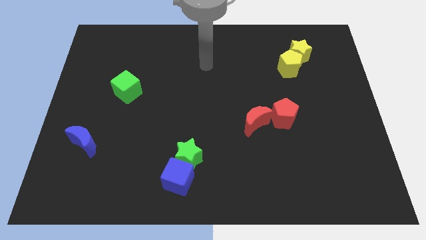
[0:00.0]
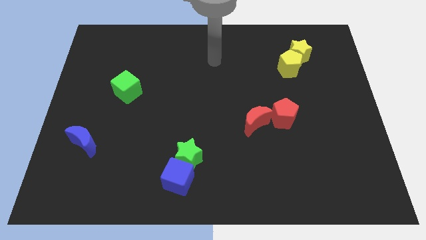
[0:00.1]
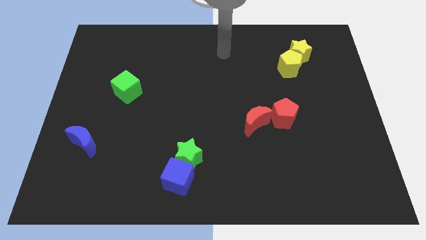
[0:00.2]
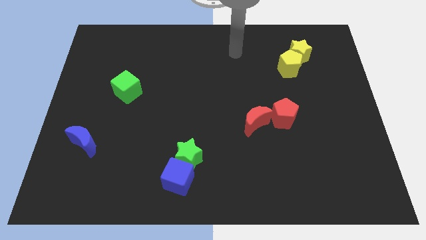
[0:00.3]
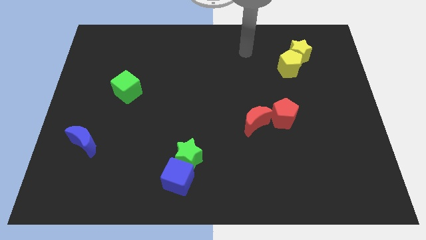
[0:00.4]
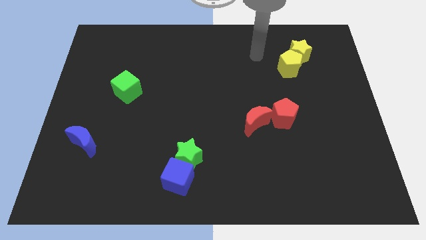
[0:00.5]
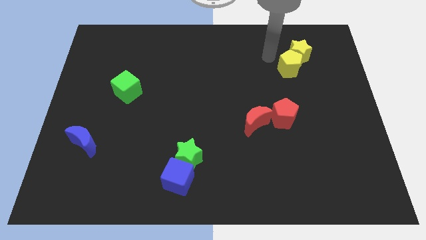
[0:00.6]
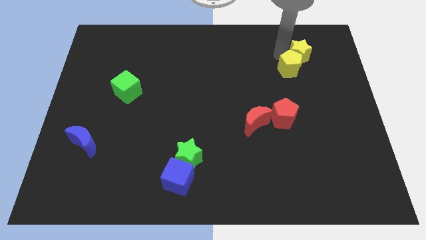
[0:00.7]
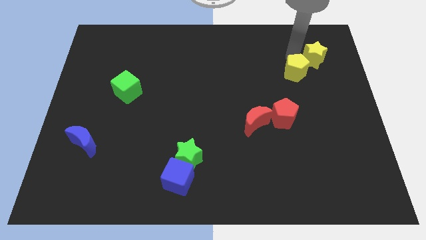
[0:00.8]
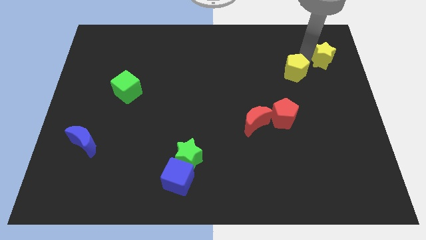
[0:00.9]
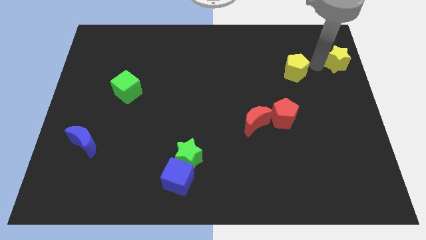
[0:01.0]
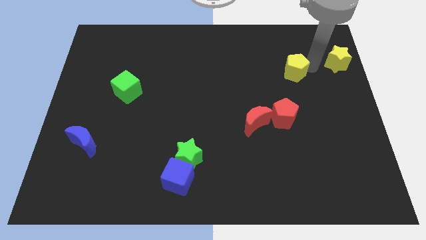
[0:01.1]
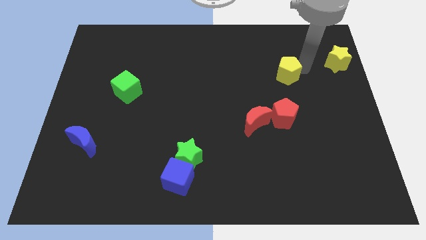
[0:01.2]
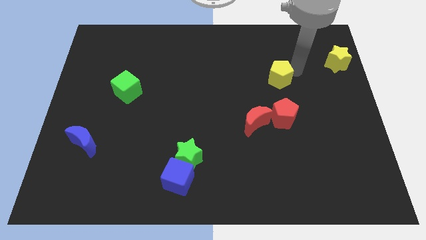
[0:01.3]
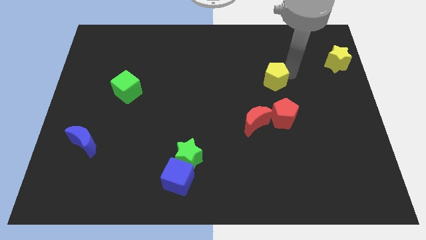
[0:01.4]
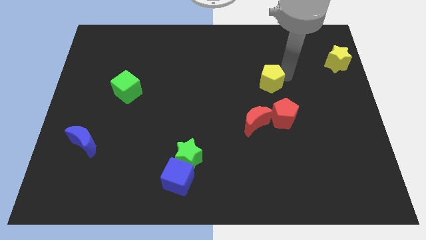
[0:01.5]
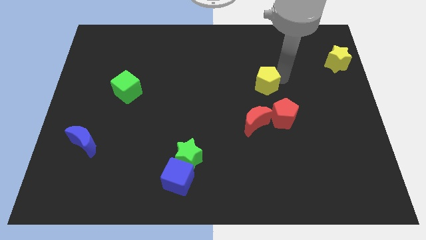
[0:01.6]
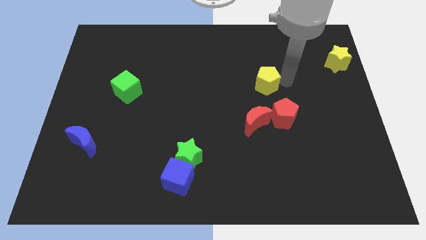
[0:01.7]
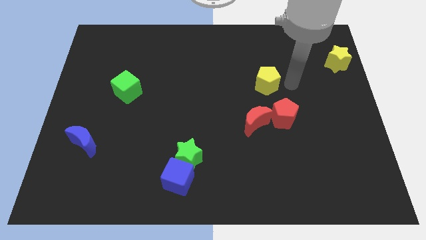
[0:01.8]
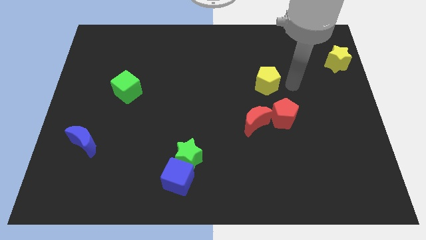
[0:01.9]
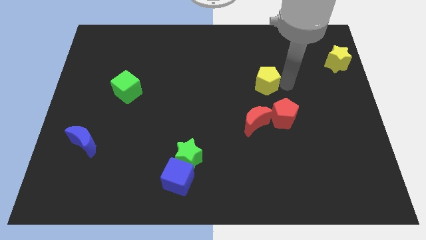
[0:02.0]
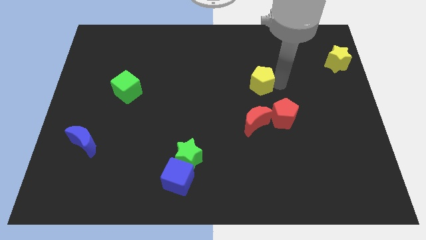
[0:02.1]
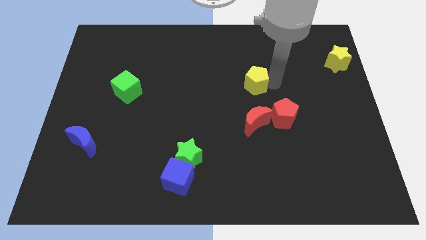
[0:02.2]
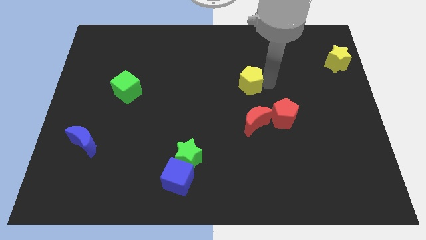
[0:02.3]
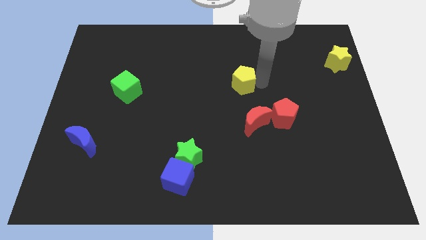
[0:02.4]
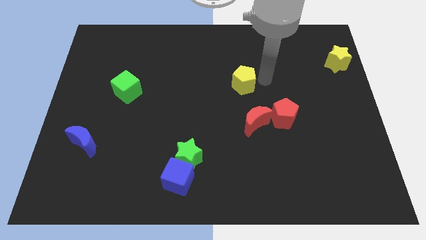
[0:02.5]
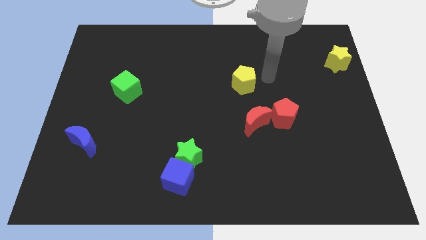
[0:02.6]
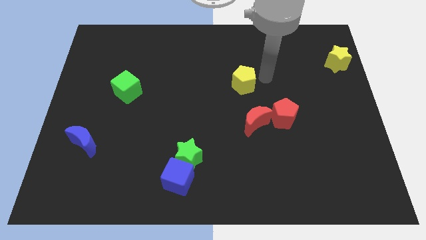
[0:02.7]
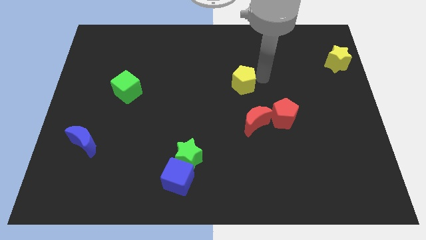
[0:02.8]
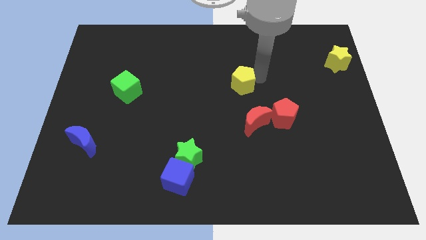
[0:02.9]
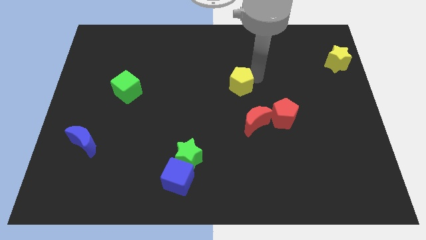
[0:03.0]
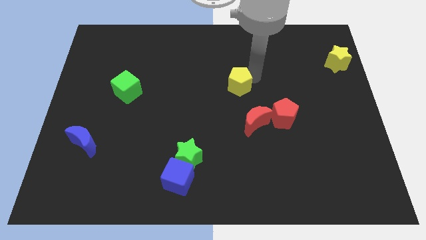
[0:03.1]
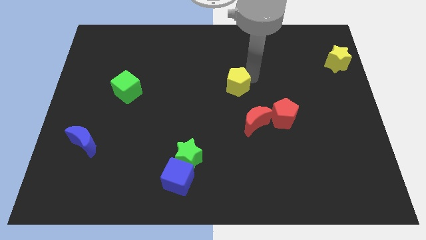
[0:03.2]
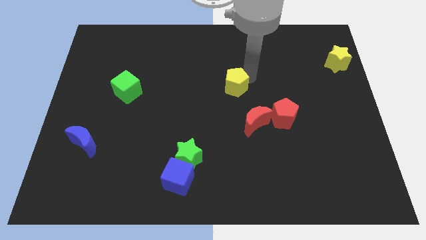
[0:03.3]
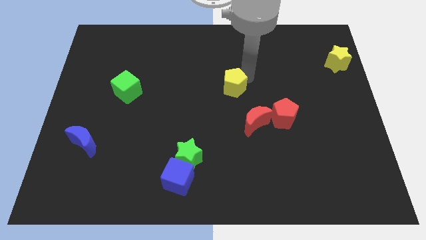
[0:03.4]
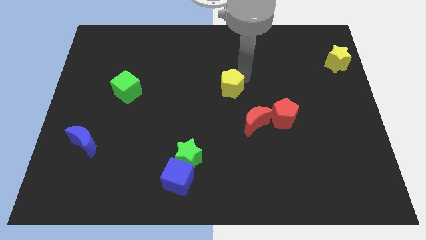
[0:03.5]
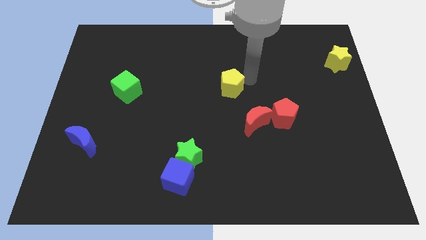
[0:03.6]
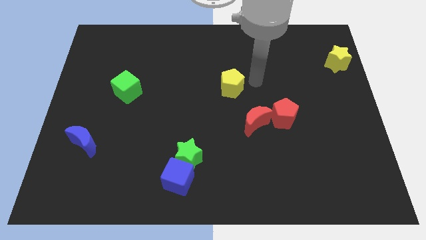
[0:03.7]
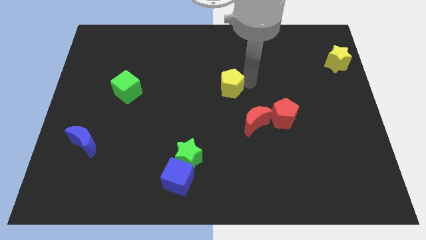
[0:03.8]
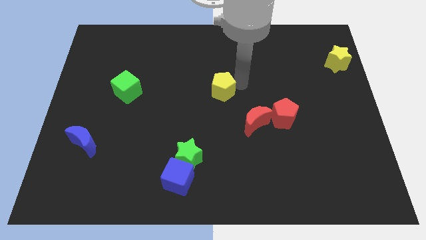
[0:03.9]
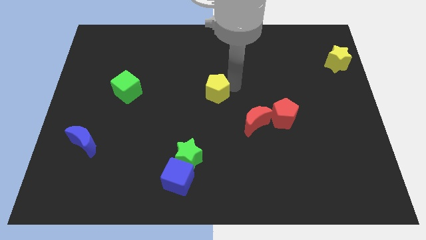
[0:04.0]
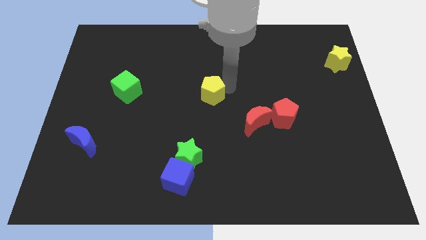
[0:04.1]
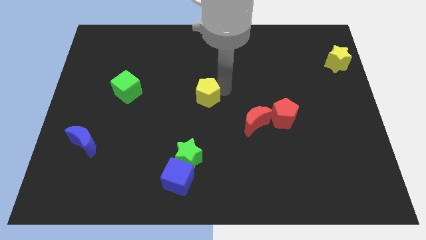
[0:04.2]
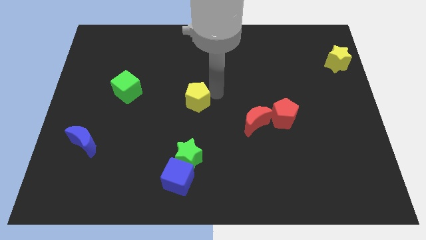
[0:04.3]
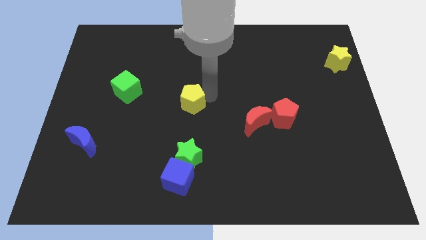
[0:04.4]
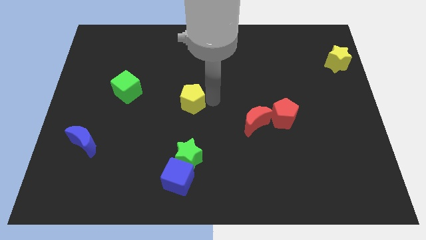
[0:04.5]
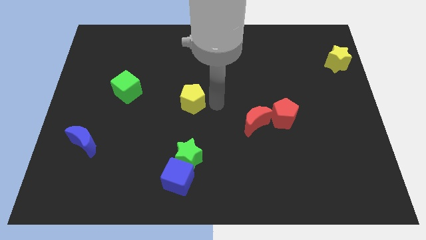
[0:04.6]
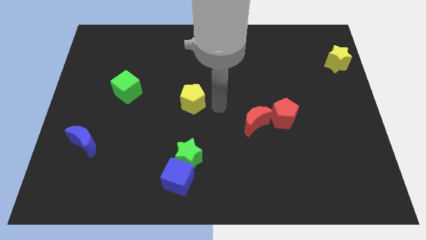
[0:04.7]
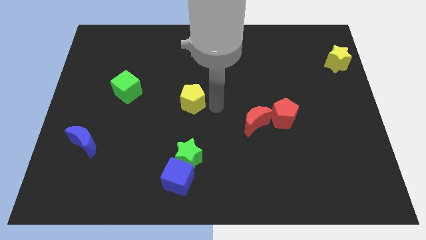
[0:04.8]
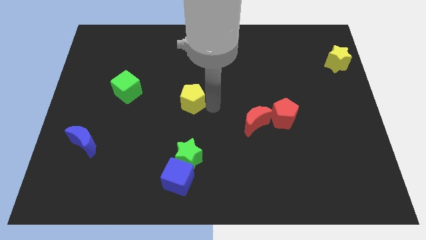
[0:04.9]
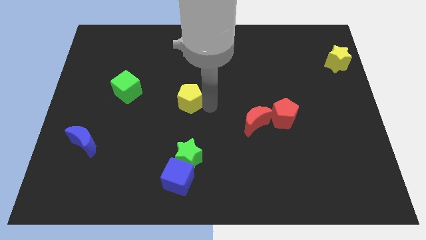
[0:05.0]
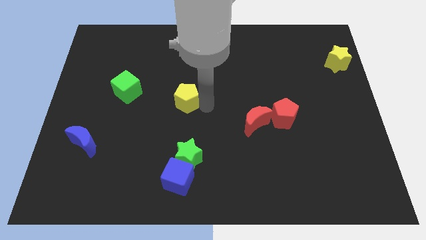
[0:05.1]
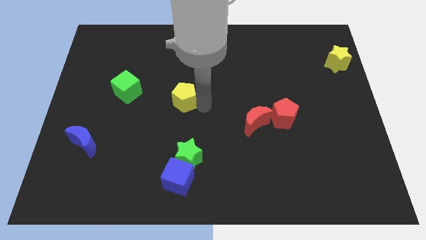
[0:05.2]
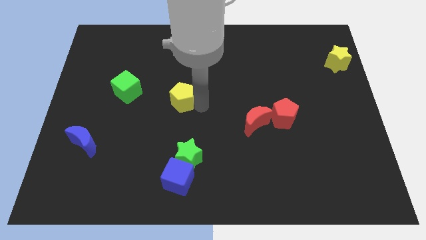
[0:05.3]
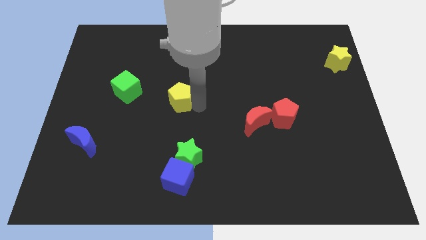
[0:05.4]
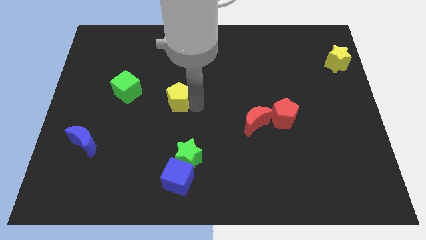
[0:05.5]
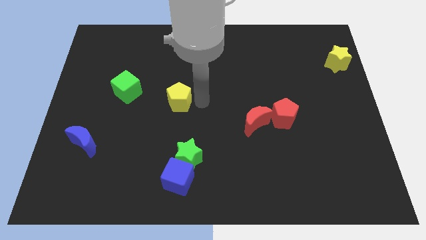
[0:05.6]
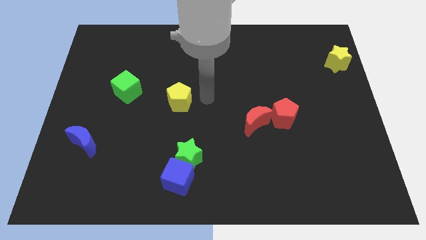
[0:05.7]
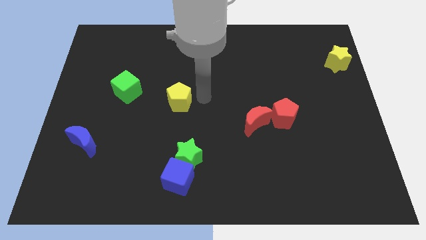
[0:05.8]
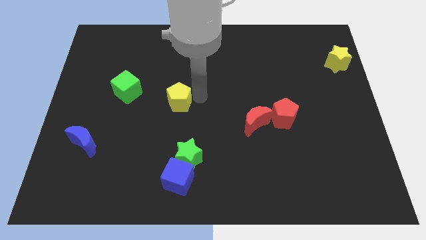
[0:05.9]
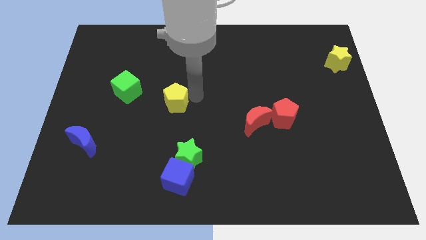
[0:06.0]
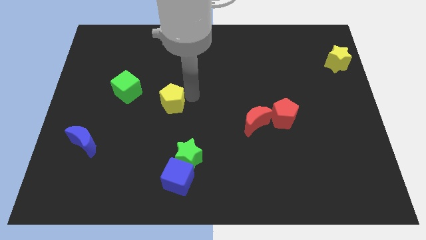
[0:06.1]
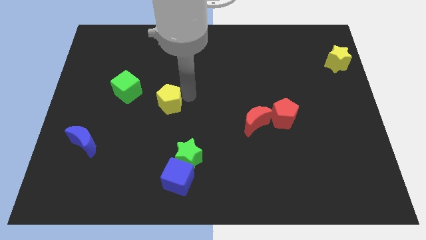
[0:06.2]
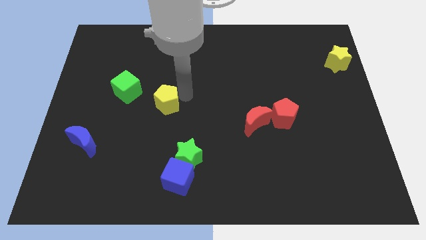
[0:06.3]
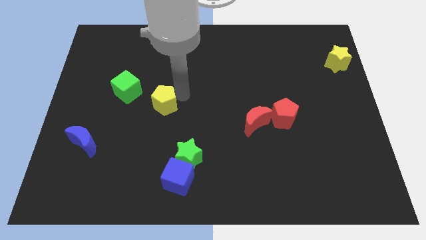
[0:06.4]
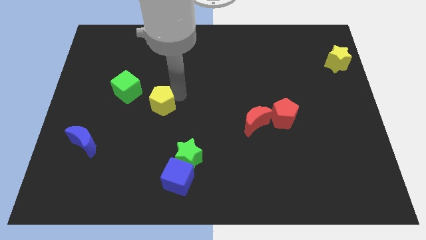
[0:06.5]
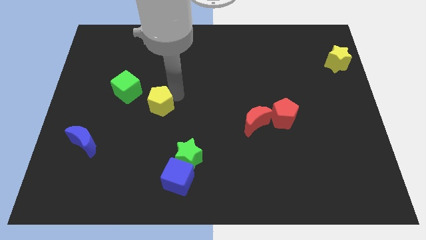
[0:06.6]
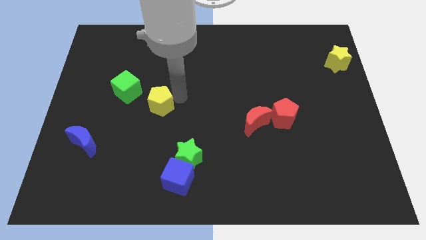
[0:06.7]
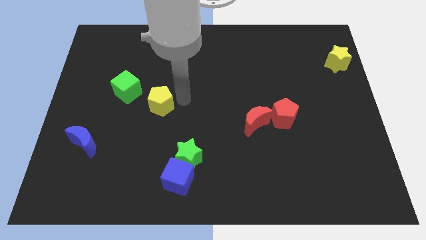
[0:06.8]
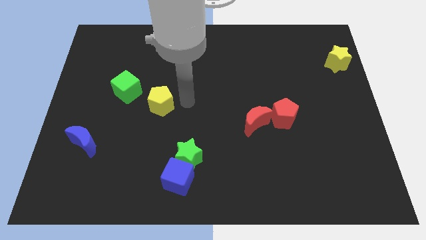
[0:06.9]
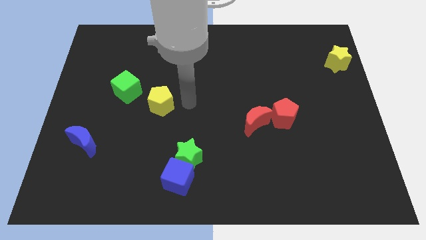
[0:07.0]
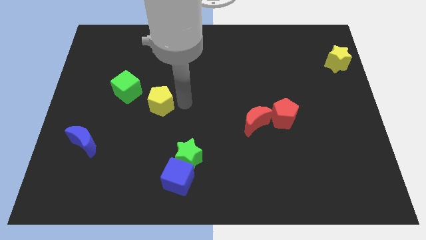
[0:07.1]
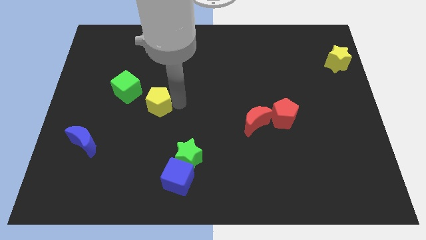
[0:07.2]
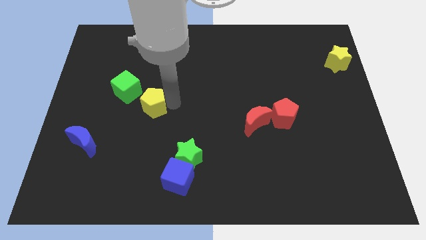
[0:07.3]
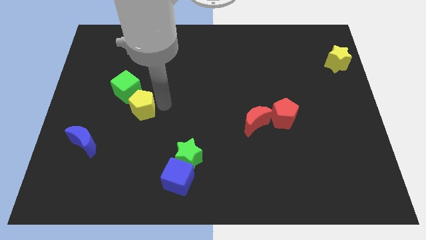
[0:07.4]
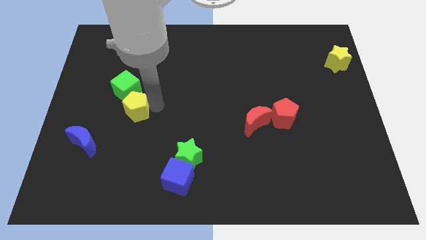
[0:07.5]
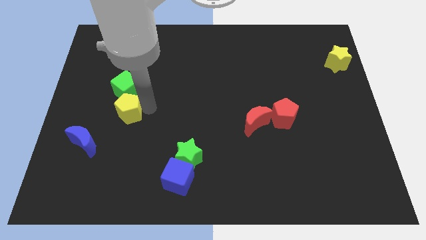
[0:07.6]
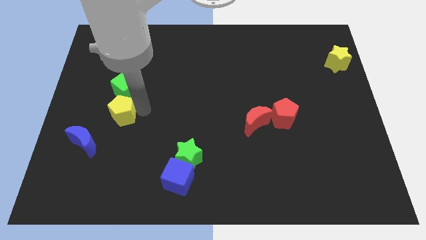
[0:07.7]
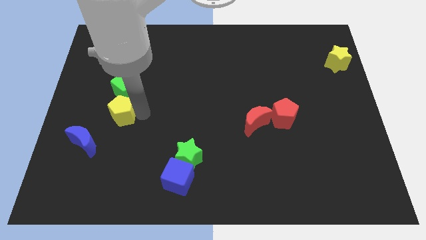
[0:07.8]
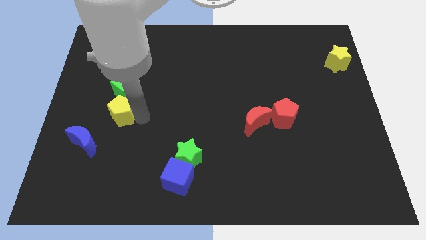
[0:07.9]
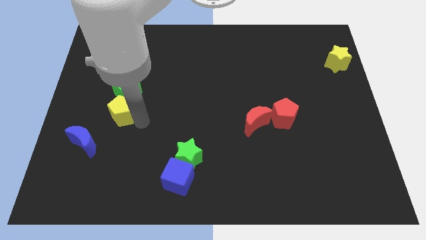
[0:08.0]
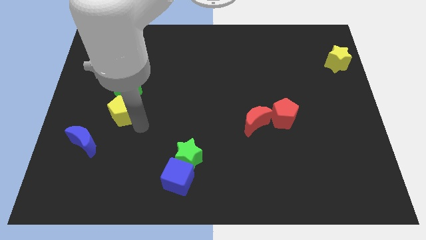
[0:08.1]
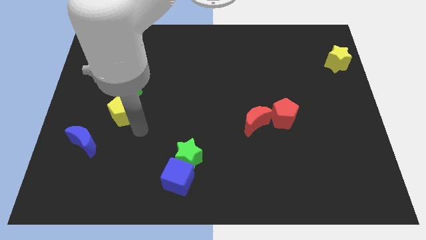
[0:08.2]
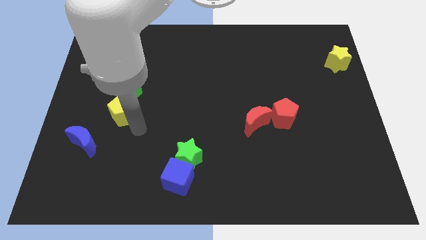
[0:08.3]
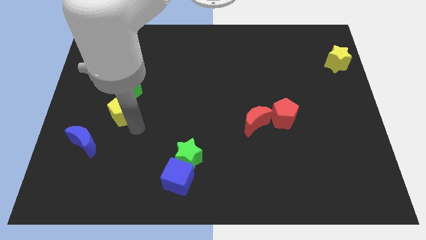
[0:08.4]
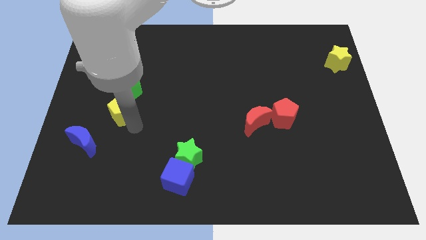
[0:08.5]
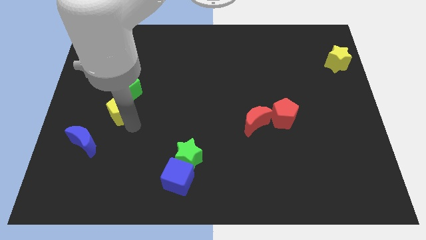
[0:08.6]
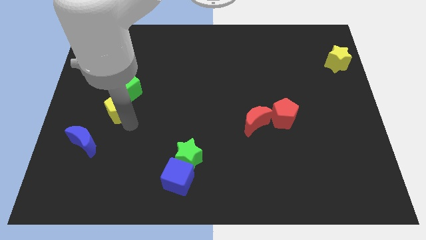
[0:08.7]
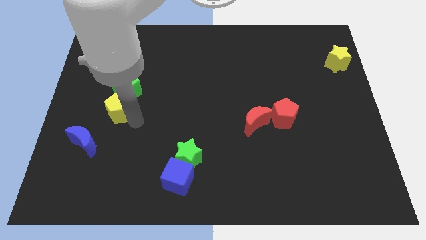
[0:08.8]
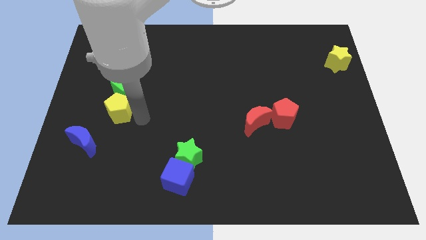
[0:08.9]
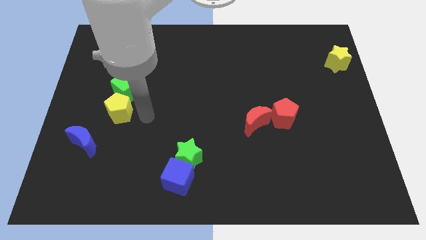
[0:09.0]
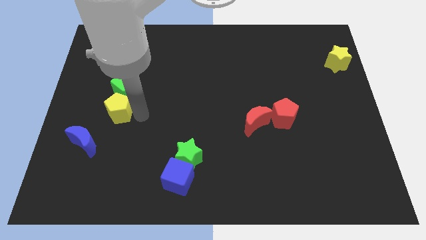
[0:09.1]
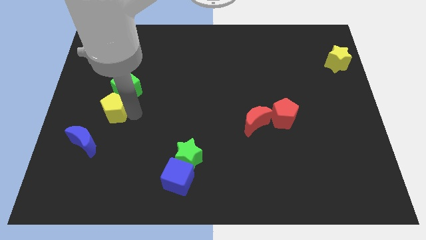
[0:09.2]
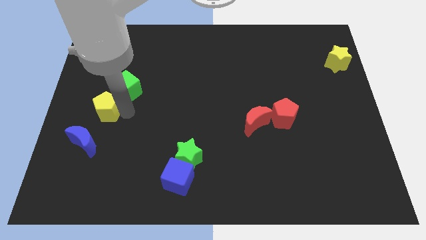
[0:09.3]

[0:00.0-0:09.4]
push the yellow pentagon above the blue moon
